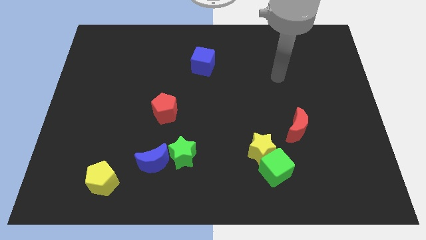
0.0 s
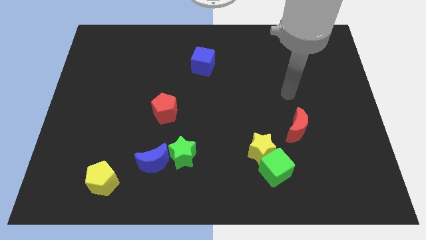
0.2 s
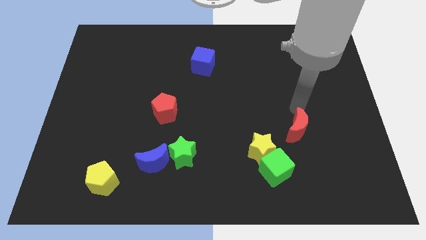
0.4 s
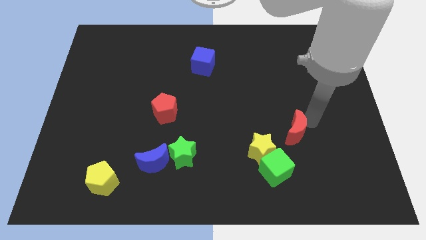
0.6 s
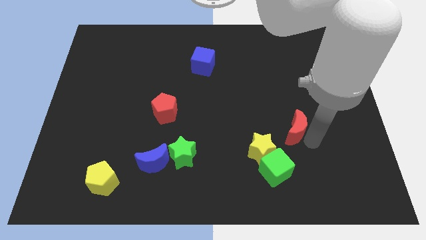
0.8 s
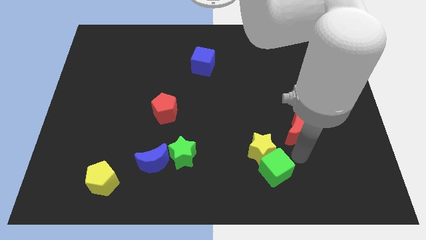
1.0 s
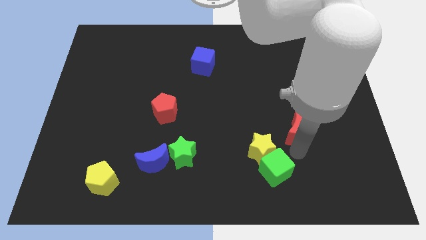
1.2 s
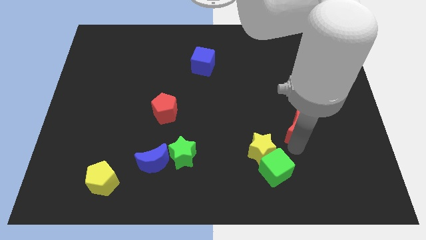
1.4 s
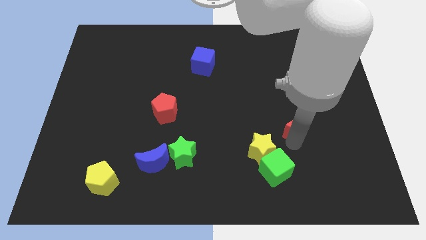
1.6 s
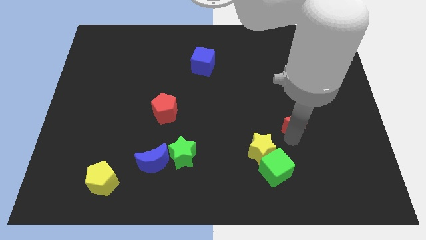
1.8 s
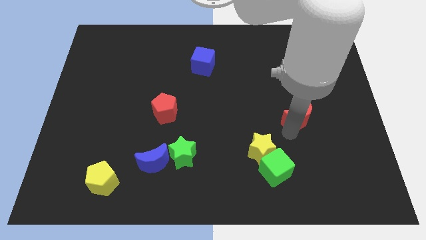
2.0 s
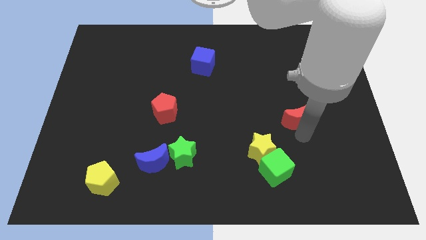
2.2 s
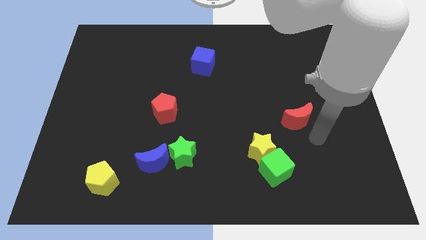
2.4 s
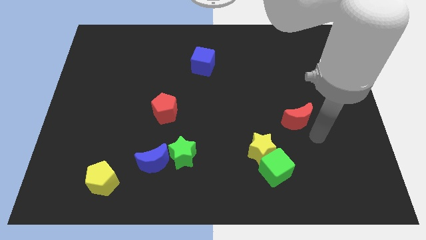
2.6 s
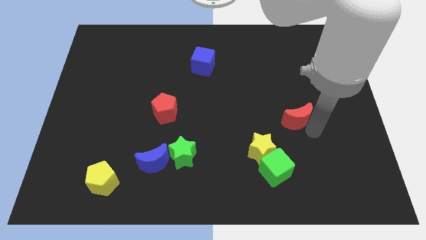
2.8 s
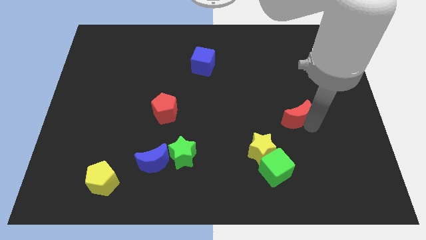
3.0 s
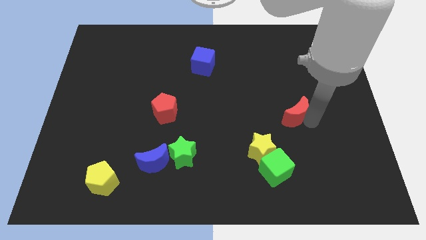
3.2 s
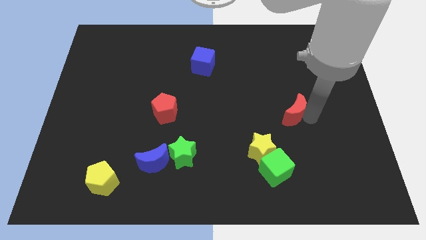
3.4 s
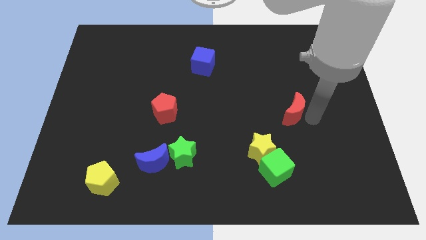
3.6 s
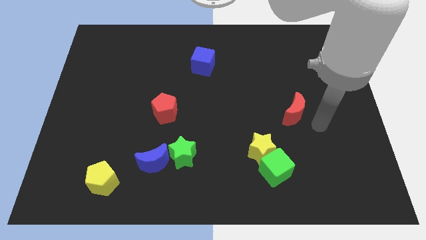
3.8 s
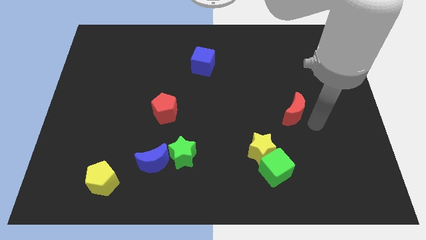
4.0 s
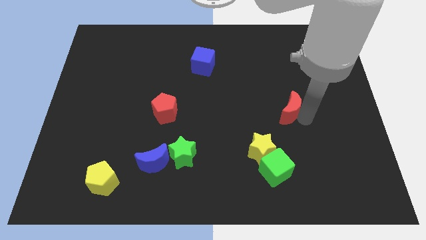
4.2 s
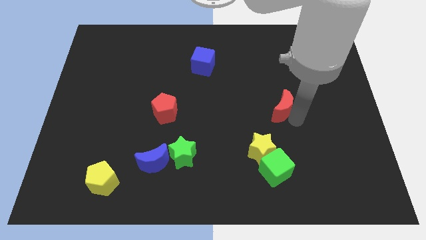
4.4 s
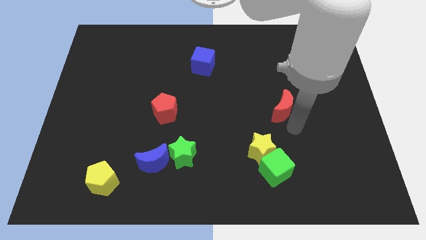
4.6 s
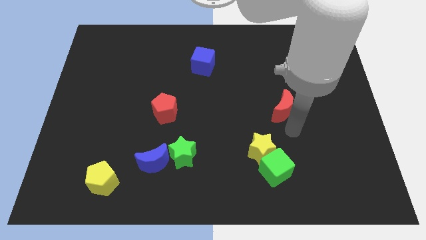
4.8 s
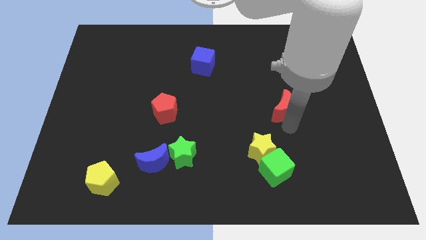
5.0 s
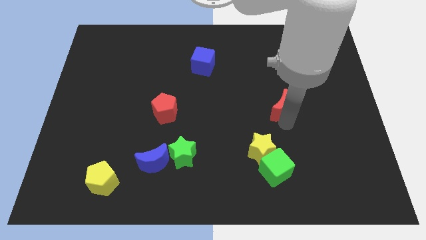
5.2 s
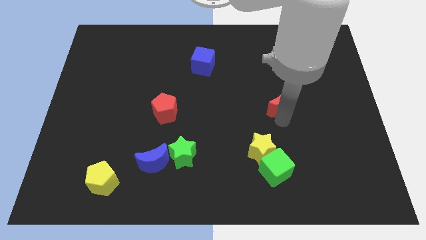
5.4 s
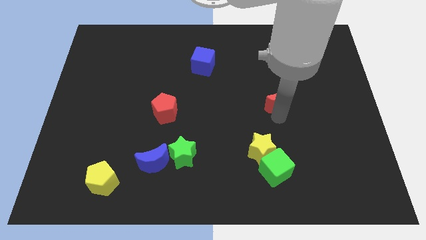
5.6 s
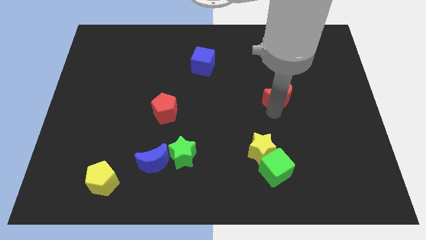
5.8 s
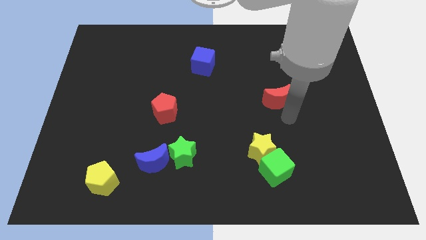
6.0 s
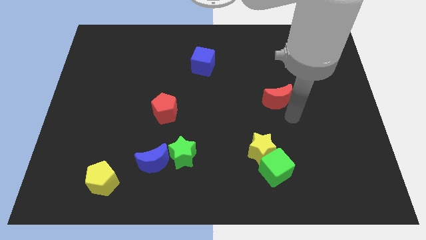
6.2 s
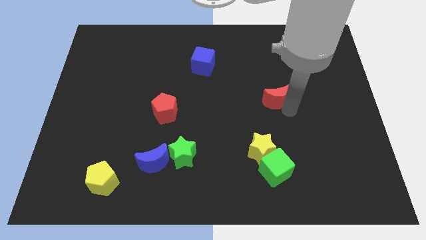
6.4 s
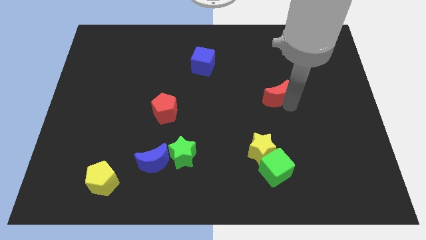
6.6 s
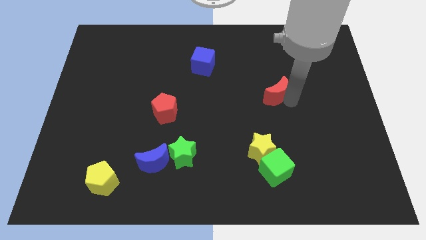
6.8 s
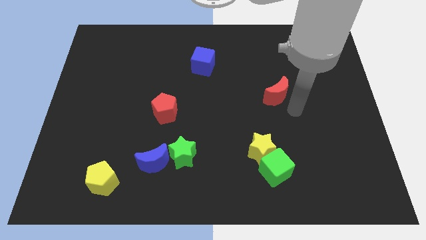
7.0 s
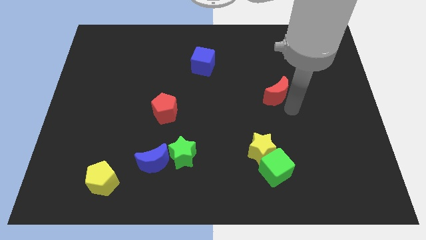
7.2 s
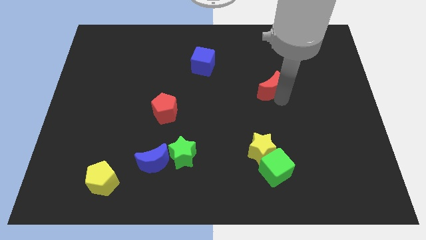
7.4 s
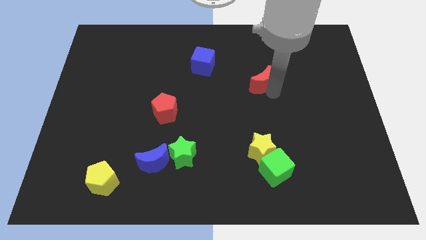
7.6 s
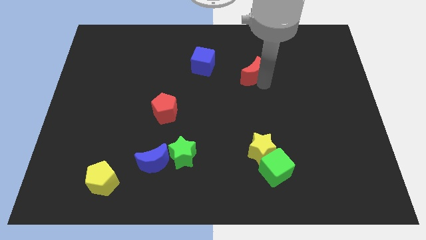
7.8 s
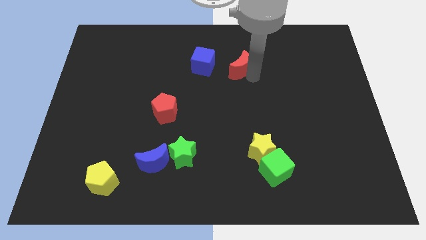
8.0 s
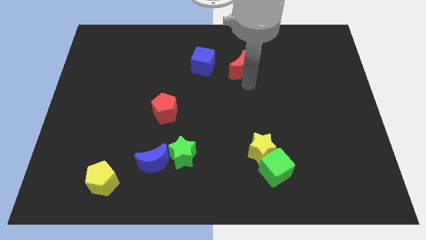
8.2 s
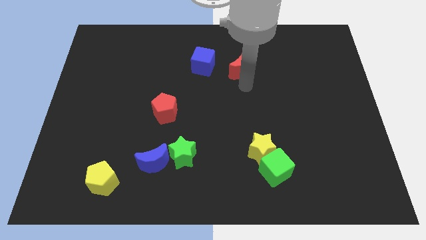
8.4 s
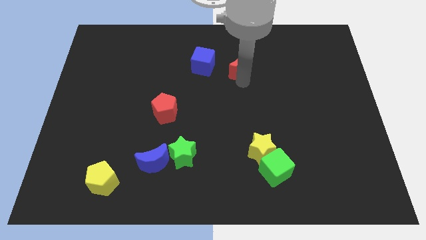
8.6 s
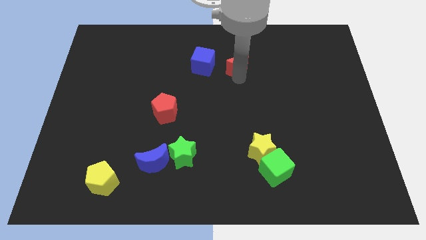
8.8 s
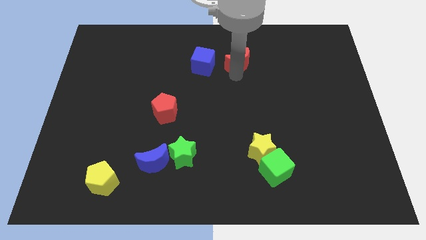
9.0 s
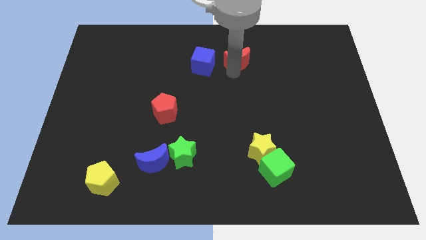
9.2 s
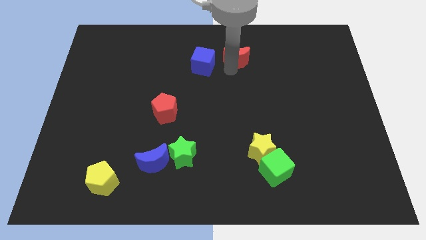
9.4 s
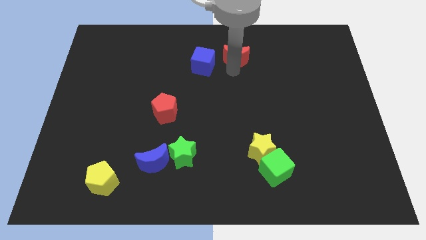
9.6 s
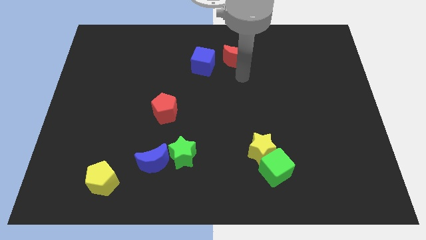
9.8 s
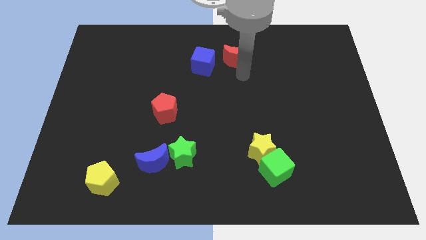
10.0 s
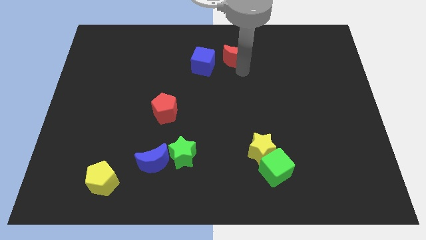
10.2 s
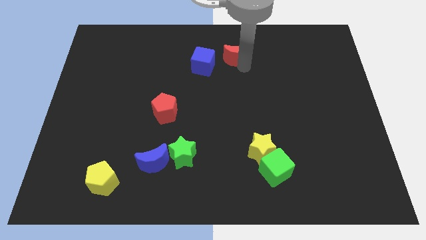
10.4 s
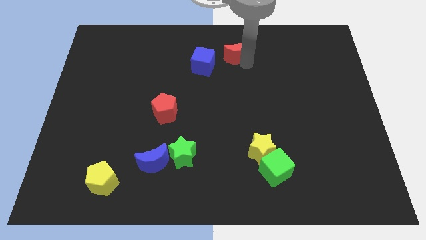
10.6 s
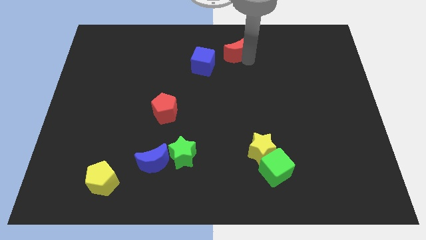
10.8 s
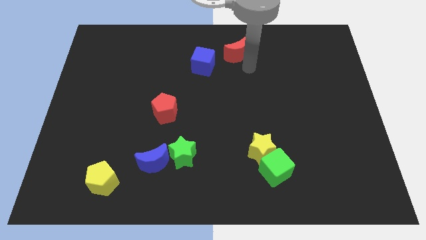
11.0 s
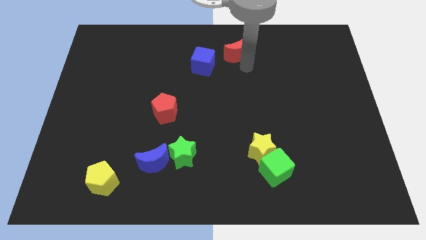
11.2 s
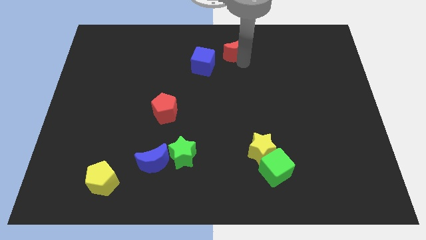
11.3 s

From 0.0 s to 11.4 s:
push the red moon to the towards your base

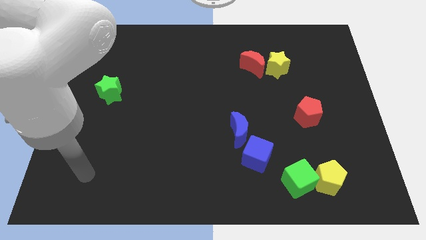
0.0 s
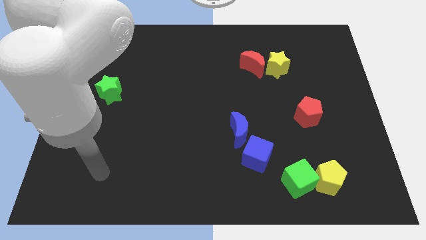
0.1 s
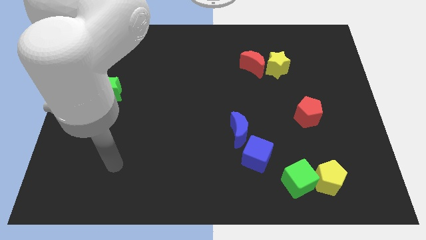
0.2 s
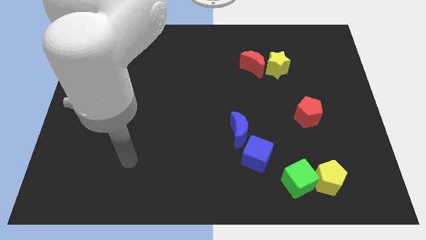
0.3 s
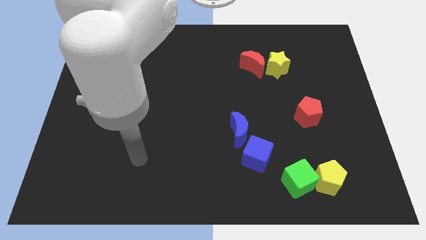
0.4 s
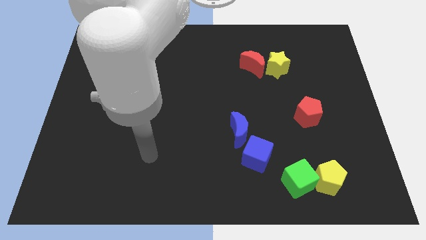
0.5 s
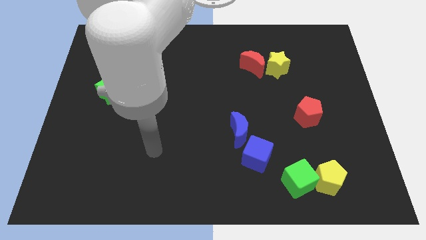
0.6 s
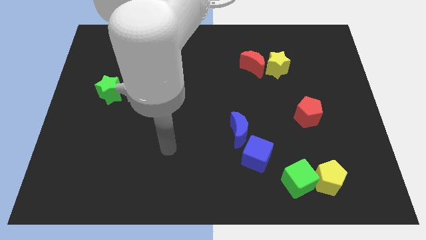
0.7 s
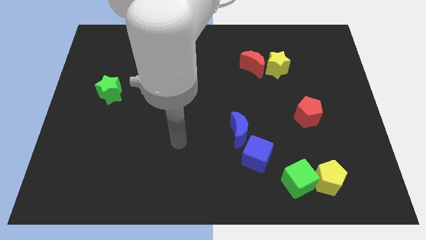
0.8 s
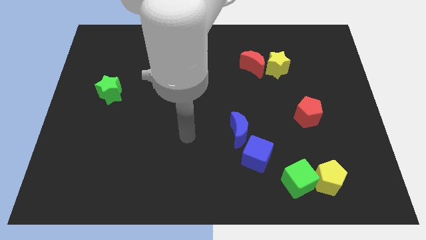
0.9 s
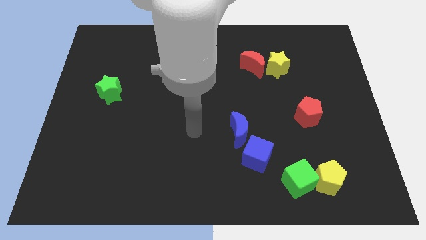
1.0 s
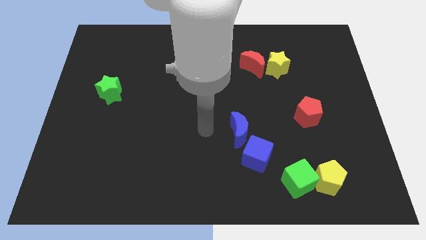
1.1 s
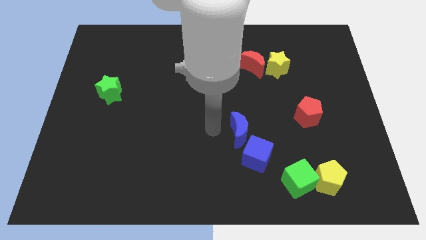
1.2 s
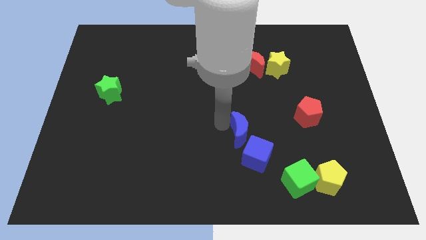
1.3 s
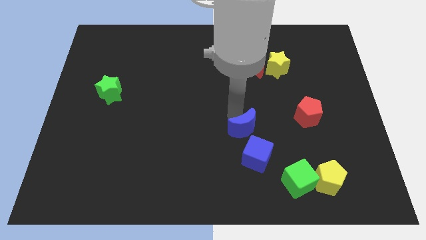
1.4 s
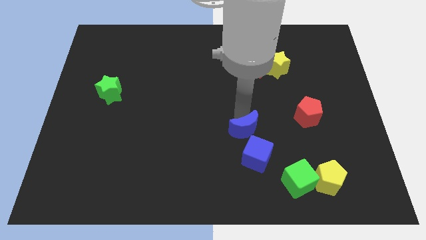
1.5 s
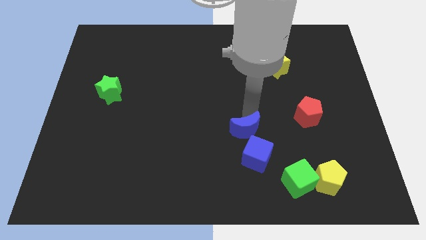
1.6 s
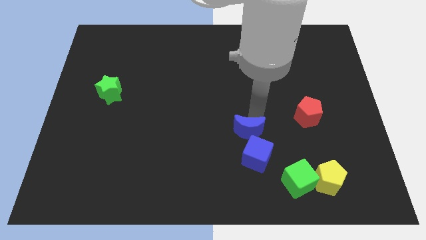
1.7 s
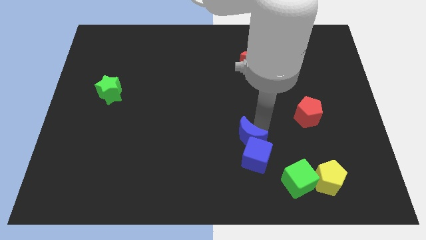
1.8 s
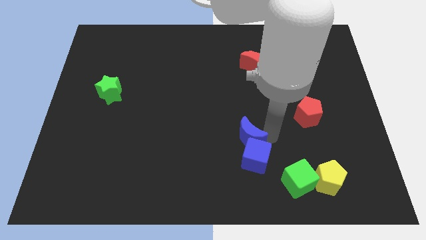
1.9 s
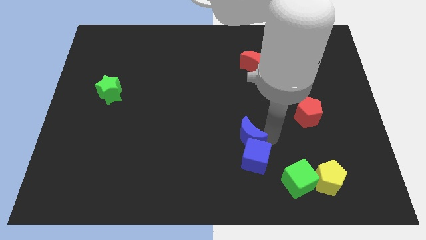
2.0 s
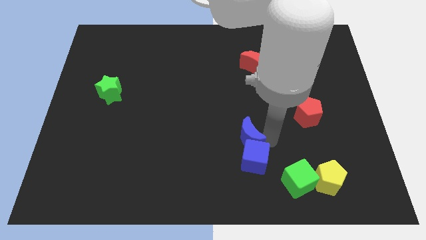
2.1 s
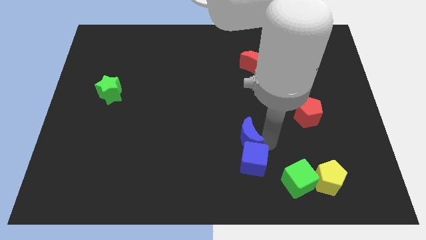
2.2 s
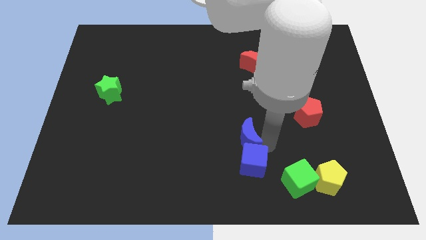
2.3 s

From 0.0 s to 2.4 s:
move the blue cube to the bottom side
